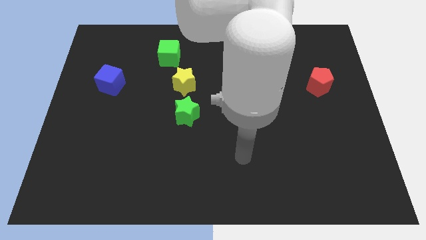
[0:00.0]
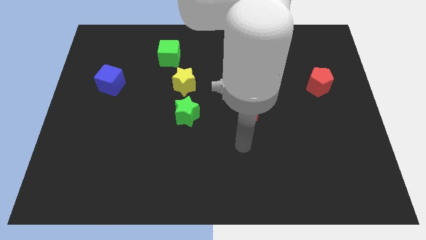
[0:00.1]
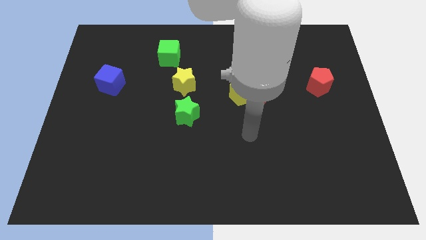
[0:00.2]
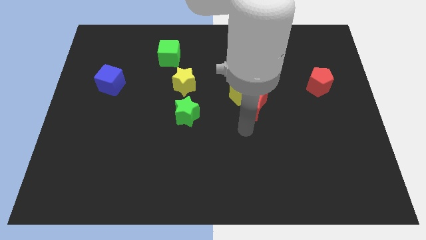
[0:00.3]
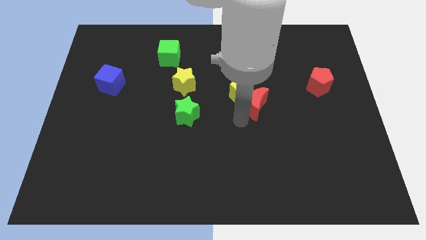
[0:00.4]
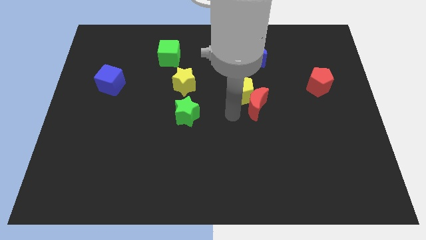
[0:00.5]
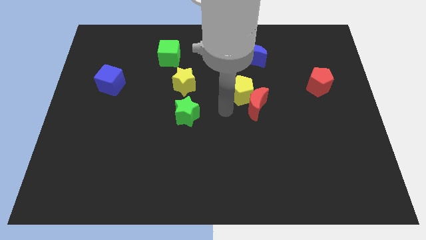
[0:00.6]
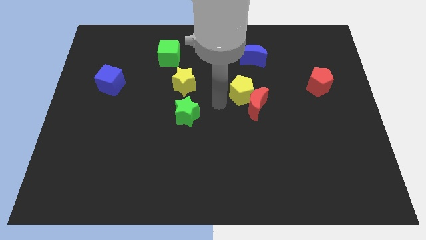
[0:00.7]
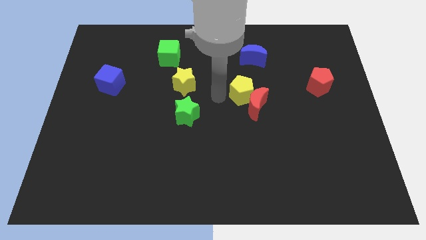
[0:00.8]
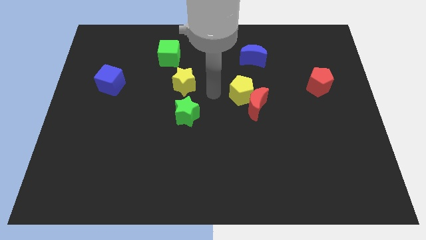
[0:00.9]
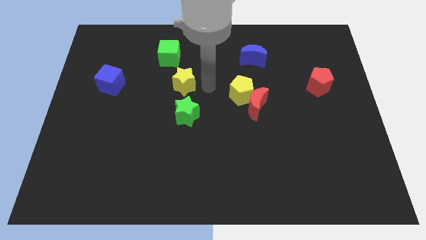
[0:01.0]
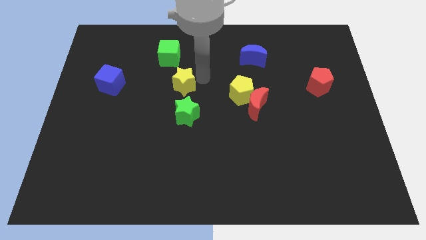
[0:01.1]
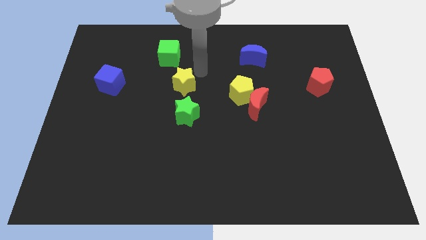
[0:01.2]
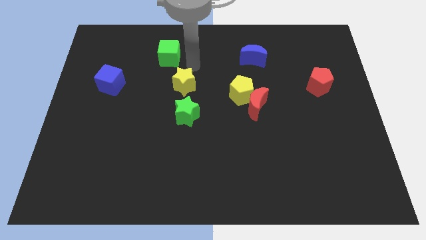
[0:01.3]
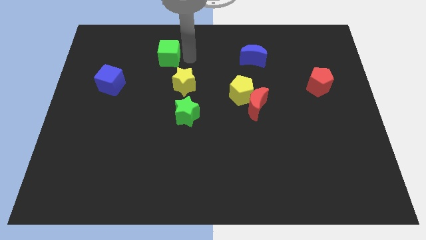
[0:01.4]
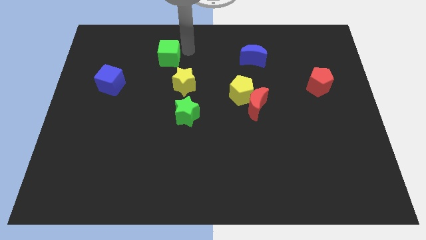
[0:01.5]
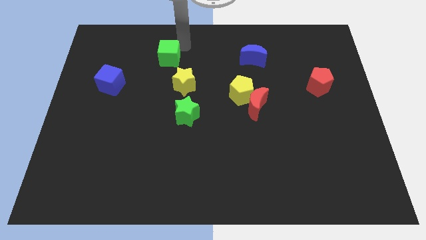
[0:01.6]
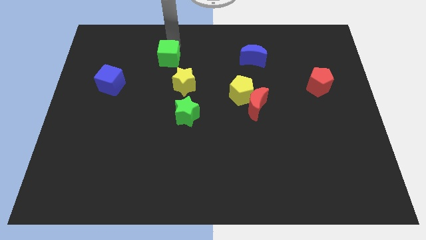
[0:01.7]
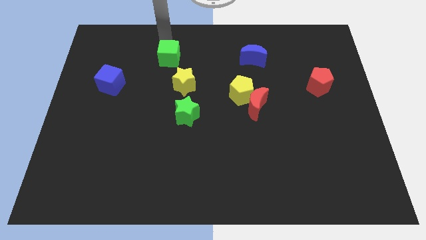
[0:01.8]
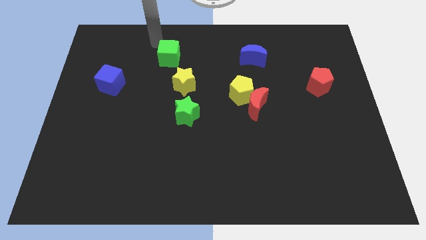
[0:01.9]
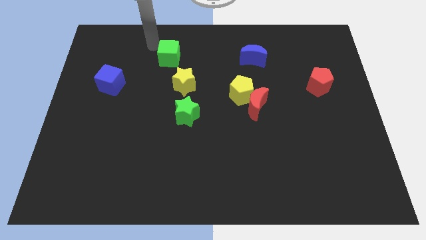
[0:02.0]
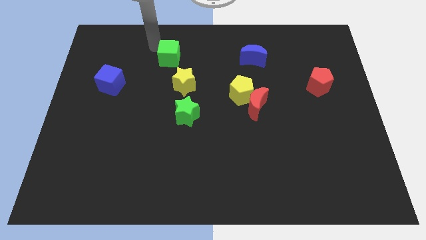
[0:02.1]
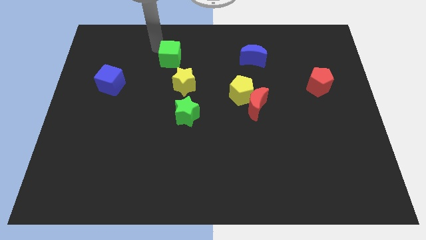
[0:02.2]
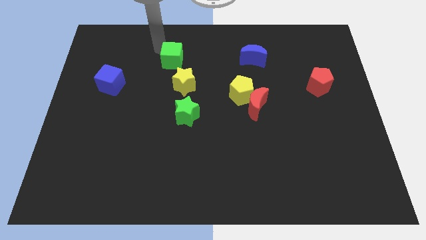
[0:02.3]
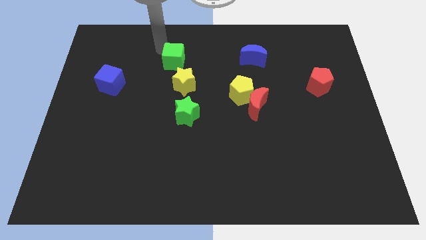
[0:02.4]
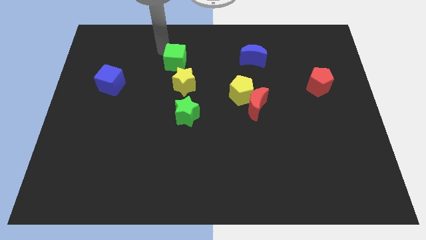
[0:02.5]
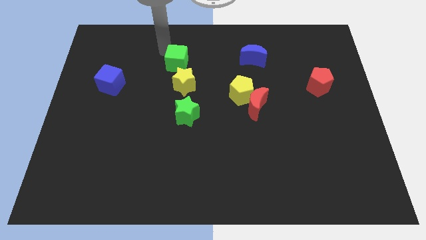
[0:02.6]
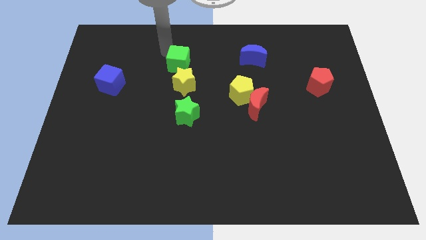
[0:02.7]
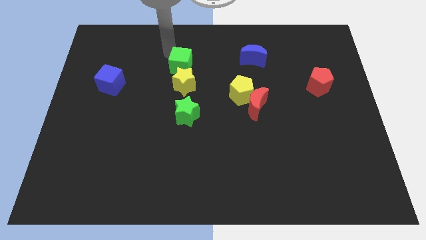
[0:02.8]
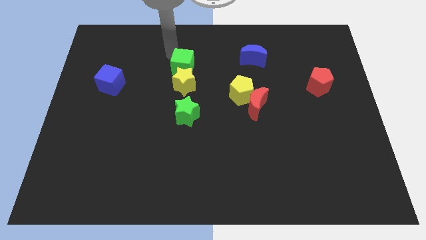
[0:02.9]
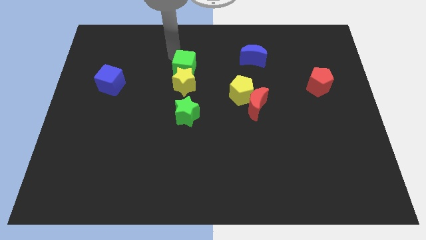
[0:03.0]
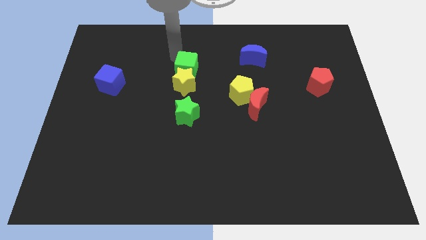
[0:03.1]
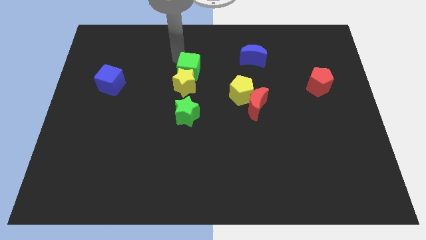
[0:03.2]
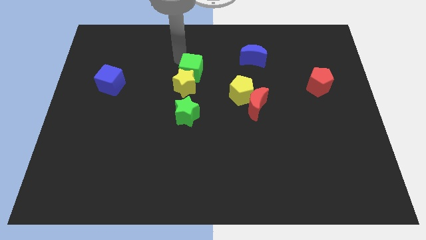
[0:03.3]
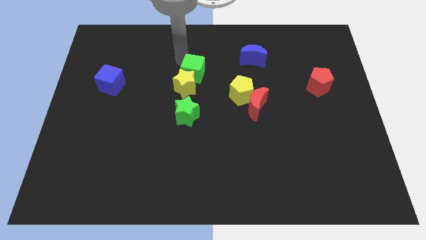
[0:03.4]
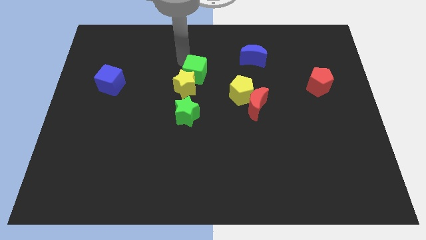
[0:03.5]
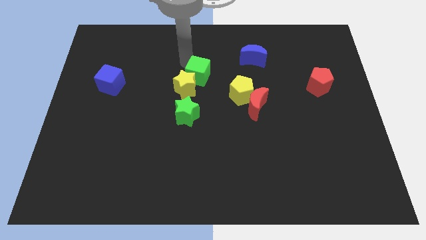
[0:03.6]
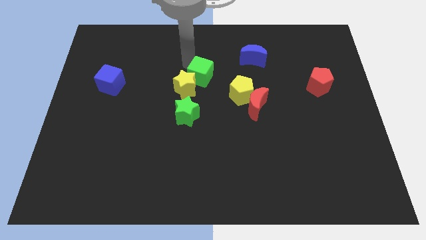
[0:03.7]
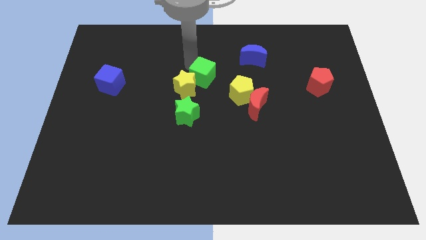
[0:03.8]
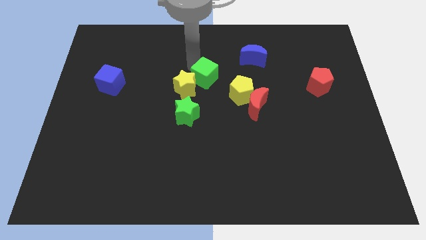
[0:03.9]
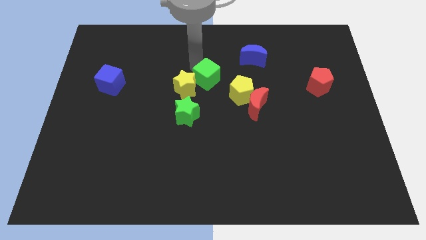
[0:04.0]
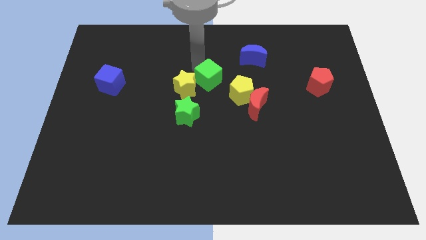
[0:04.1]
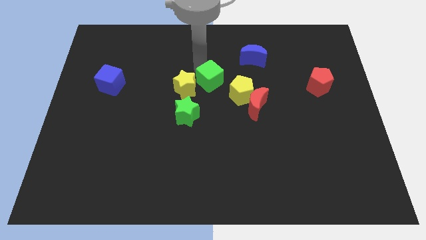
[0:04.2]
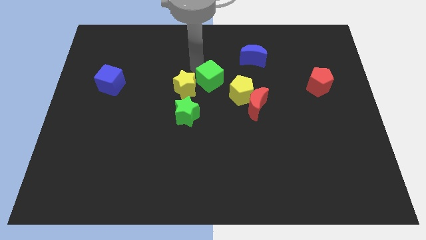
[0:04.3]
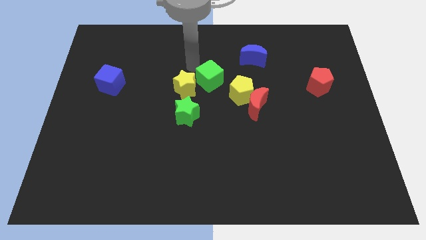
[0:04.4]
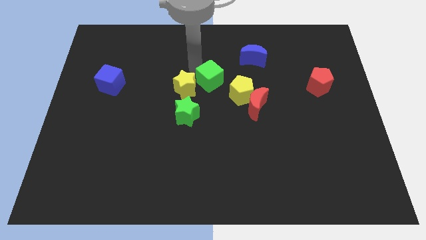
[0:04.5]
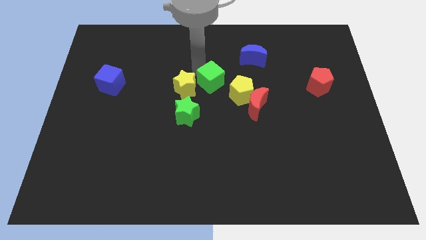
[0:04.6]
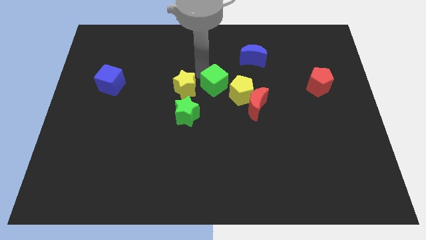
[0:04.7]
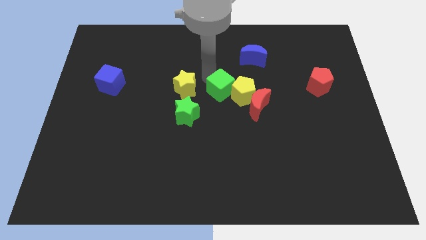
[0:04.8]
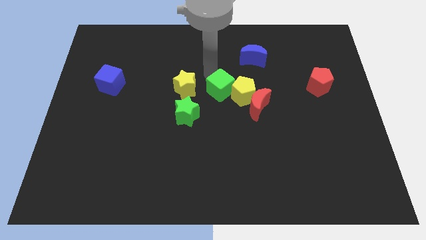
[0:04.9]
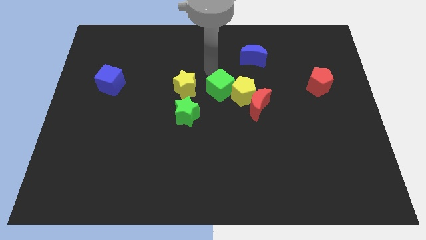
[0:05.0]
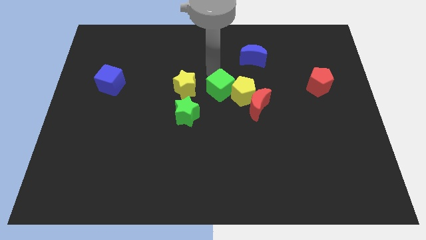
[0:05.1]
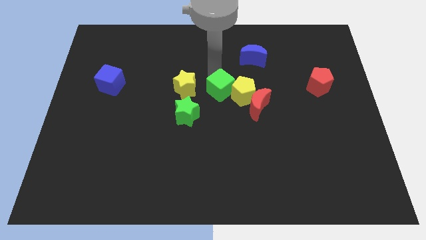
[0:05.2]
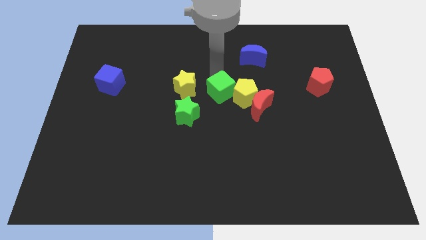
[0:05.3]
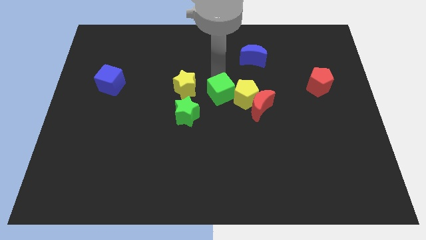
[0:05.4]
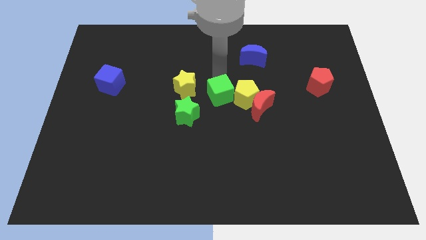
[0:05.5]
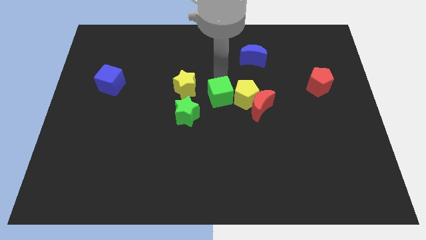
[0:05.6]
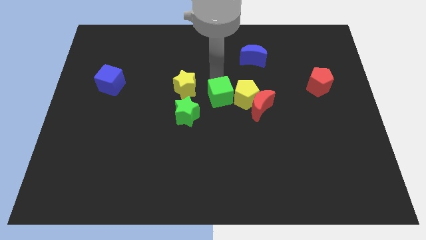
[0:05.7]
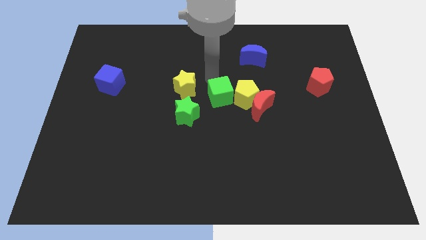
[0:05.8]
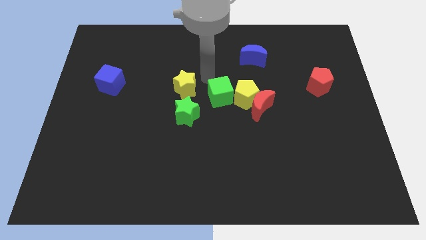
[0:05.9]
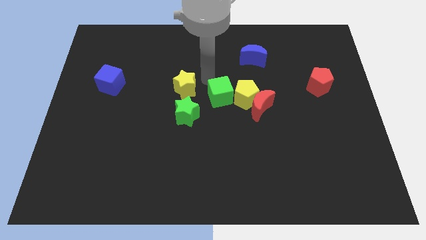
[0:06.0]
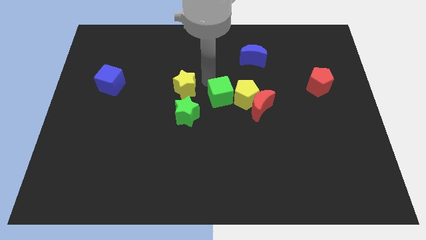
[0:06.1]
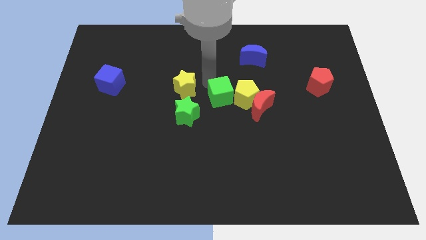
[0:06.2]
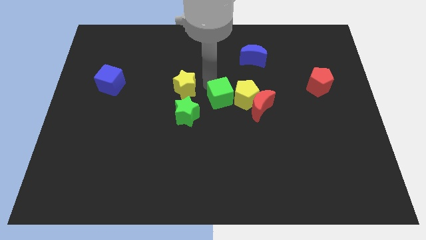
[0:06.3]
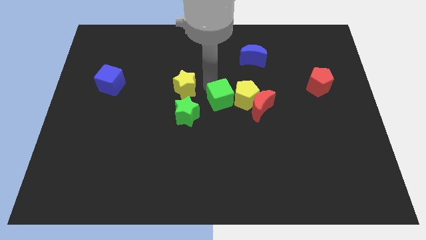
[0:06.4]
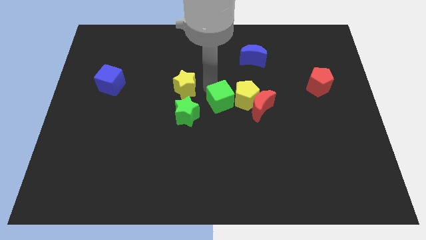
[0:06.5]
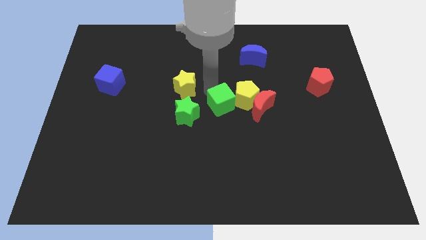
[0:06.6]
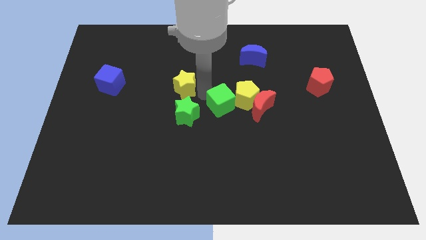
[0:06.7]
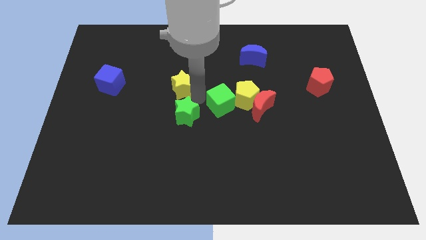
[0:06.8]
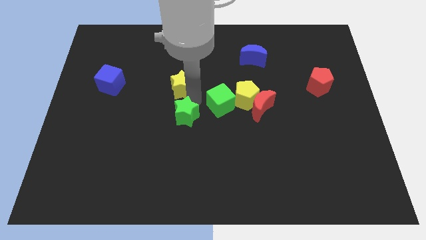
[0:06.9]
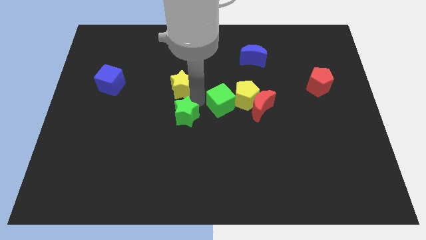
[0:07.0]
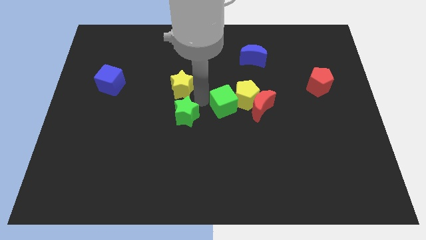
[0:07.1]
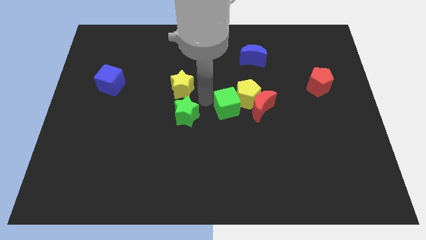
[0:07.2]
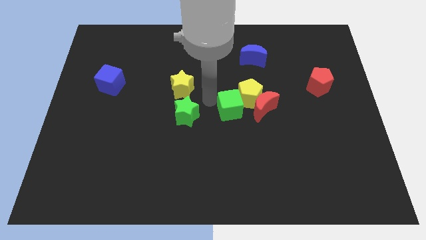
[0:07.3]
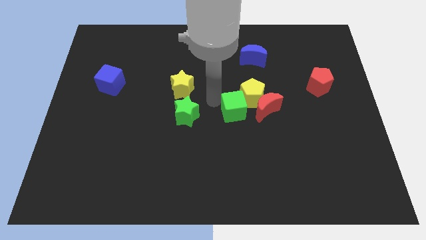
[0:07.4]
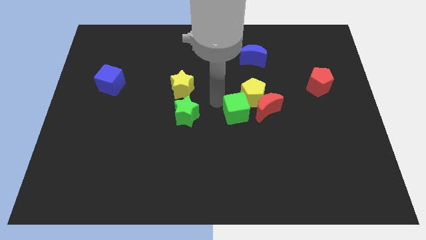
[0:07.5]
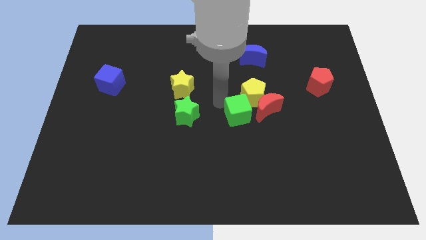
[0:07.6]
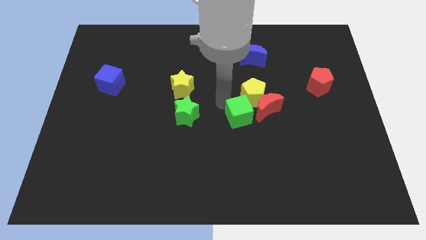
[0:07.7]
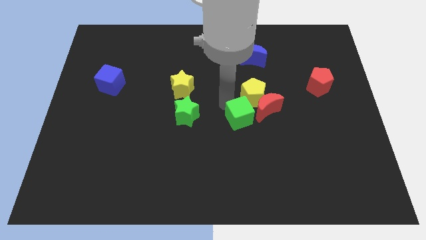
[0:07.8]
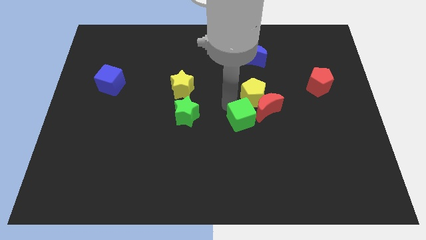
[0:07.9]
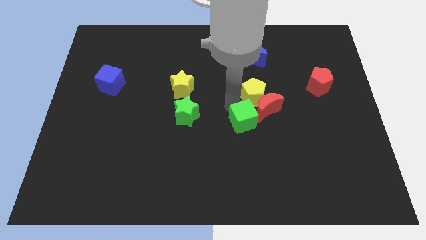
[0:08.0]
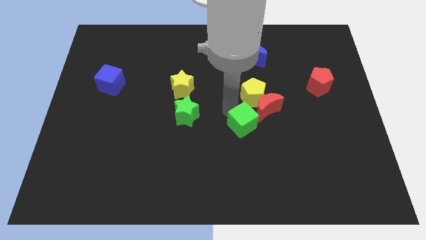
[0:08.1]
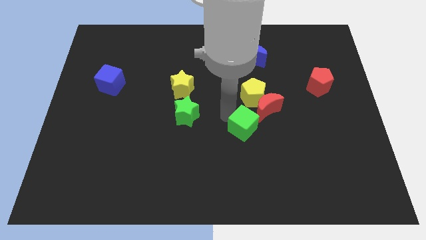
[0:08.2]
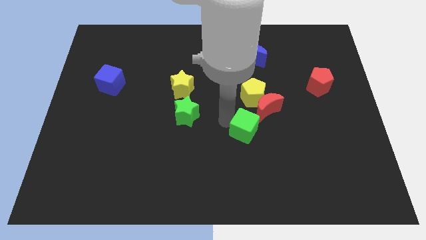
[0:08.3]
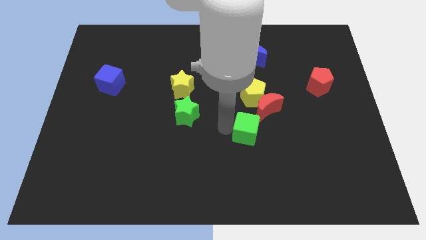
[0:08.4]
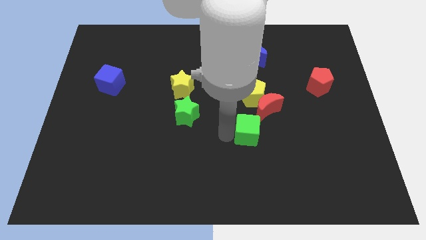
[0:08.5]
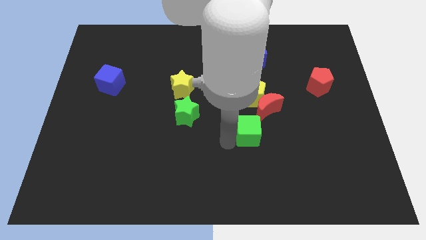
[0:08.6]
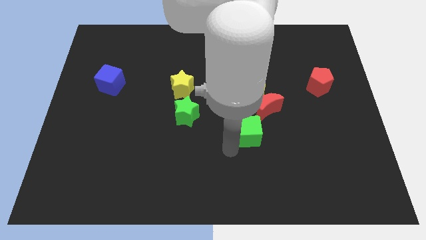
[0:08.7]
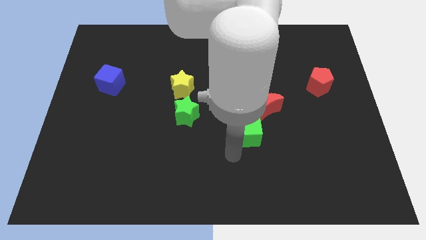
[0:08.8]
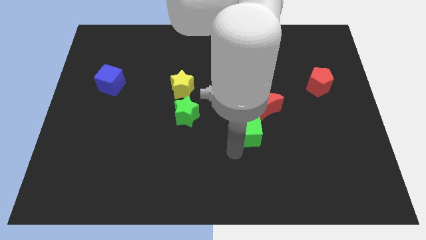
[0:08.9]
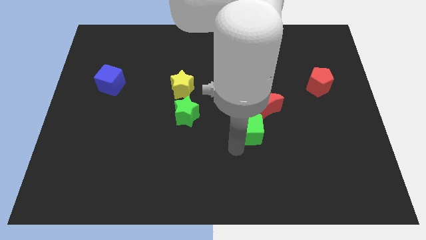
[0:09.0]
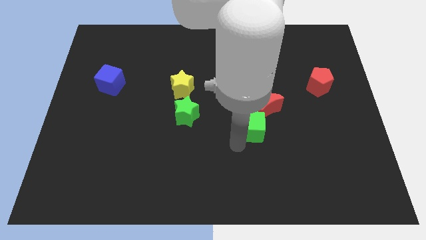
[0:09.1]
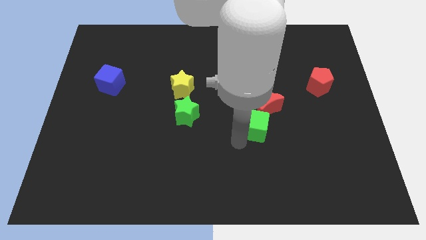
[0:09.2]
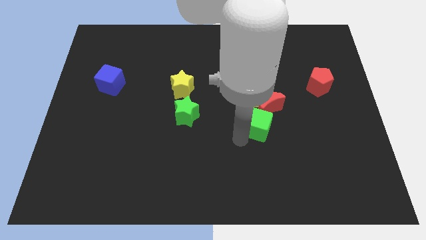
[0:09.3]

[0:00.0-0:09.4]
move the green cube close to the red moon
